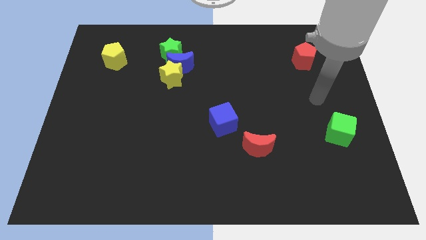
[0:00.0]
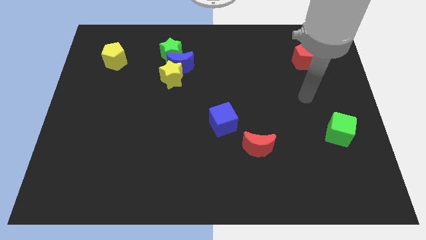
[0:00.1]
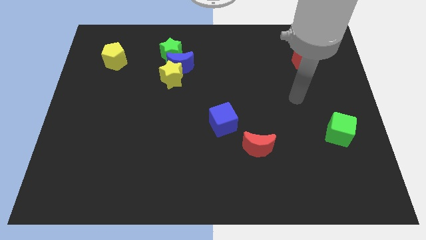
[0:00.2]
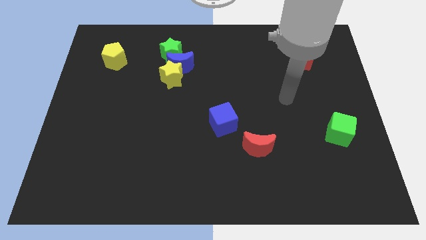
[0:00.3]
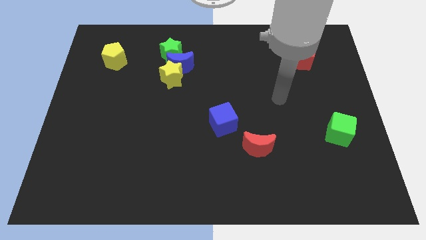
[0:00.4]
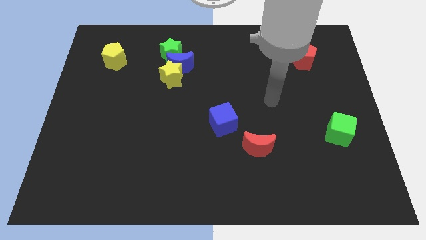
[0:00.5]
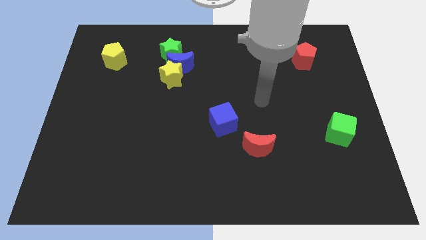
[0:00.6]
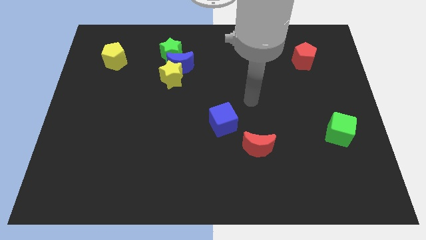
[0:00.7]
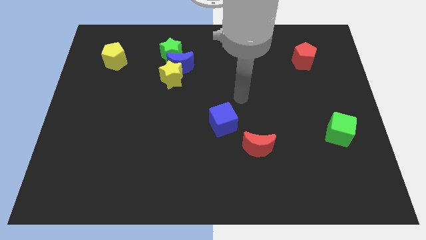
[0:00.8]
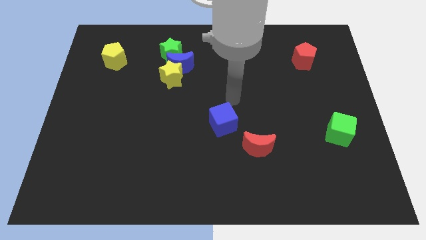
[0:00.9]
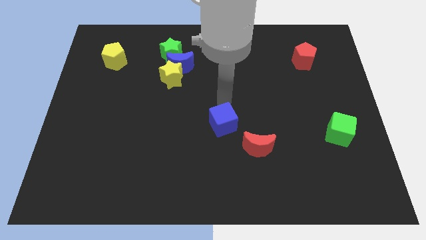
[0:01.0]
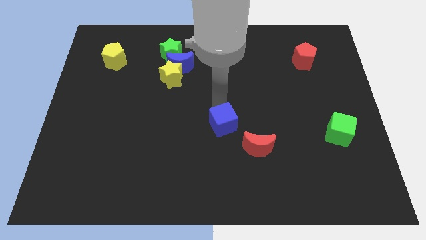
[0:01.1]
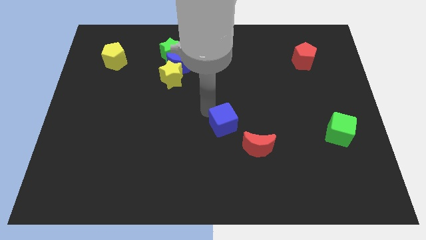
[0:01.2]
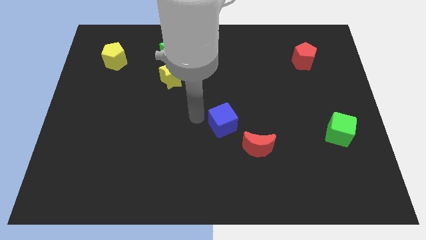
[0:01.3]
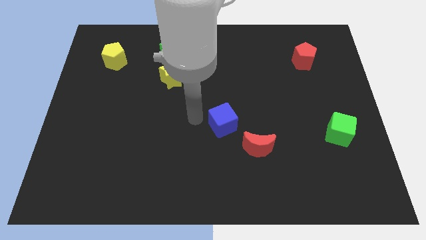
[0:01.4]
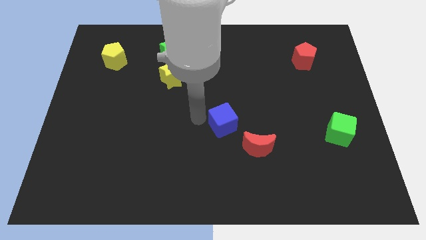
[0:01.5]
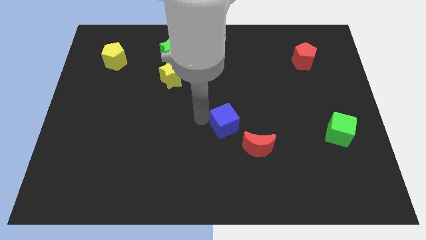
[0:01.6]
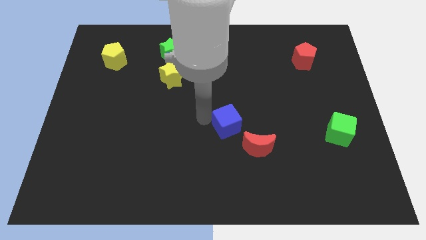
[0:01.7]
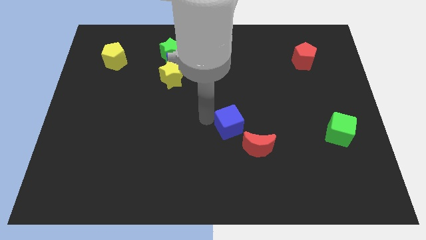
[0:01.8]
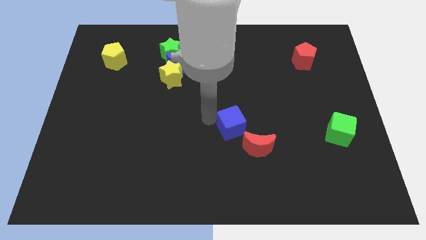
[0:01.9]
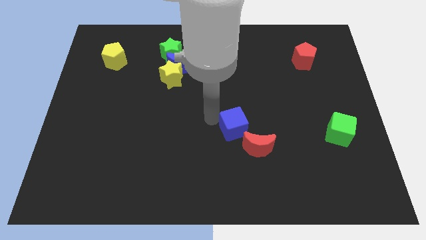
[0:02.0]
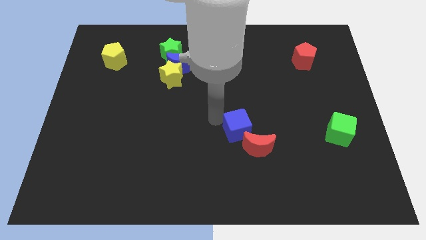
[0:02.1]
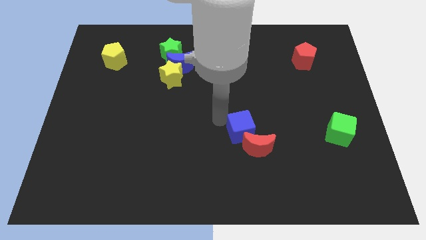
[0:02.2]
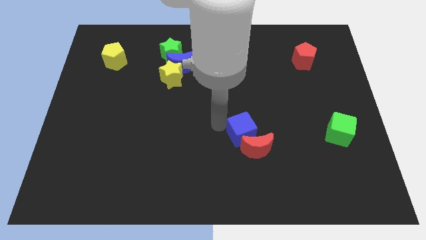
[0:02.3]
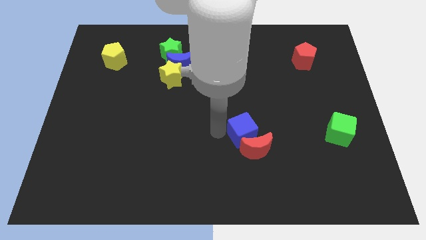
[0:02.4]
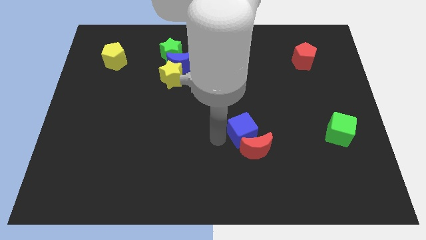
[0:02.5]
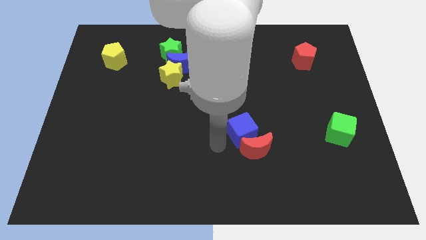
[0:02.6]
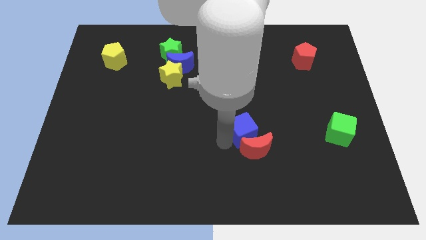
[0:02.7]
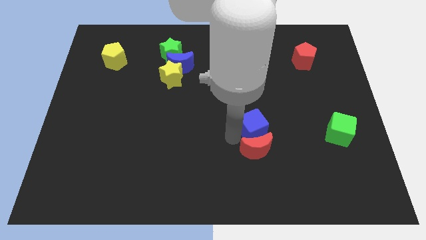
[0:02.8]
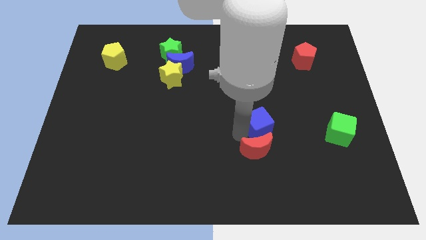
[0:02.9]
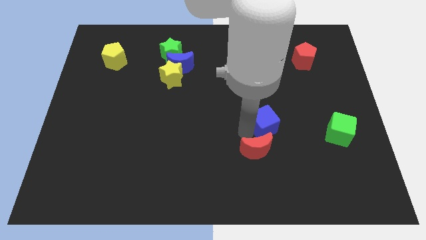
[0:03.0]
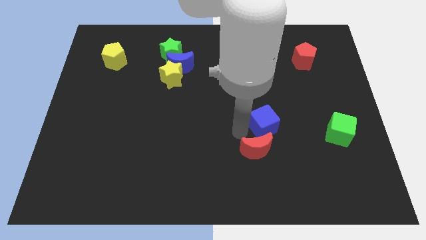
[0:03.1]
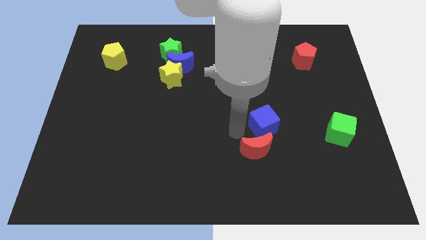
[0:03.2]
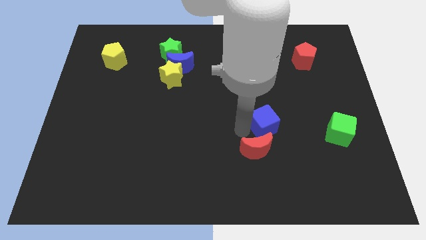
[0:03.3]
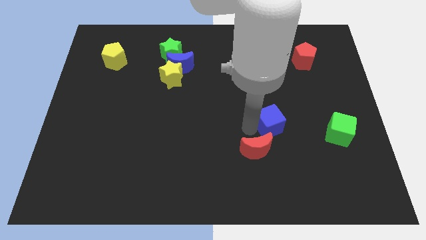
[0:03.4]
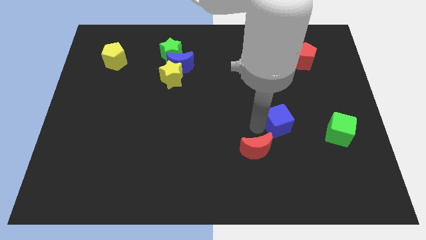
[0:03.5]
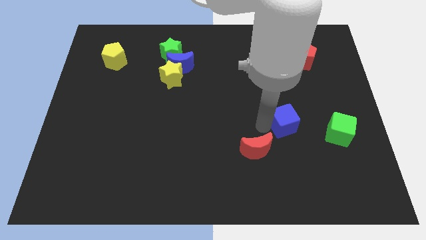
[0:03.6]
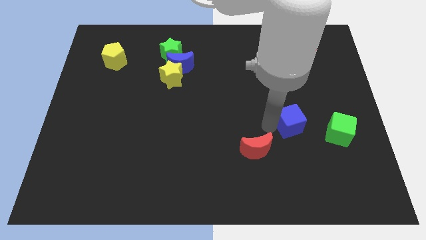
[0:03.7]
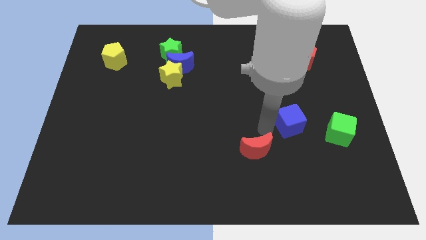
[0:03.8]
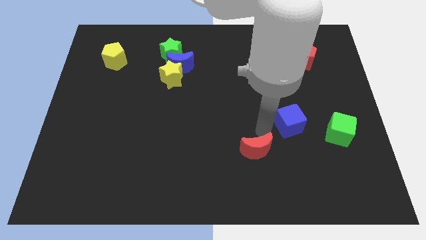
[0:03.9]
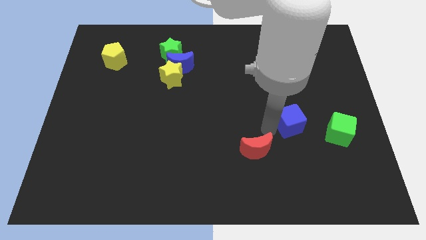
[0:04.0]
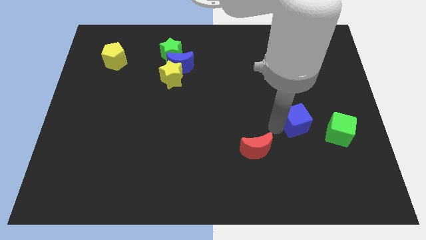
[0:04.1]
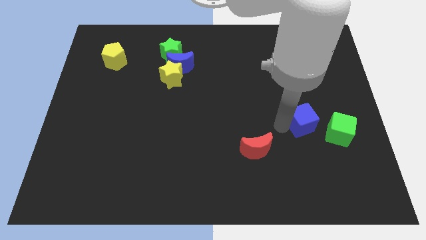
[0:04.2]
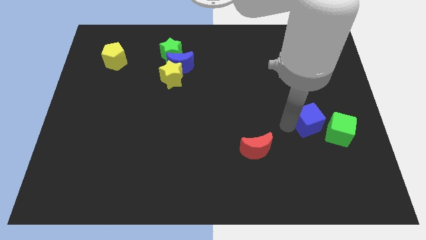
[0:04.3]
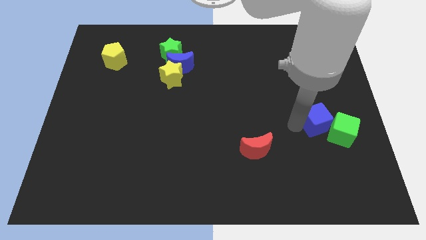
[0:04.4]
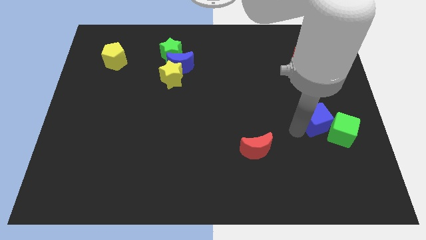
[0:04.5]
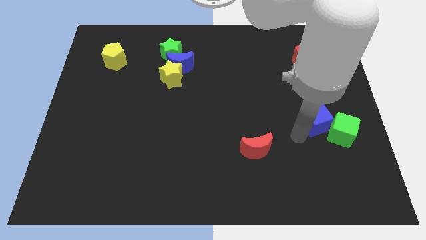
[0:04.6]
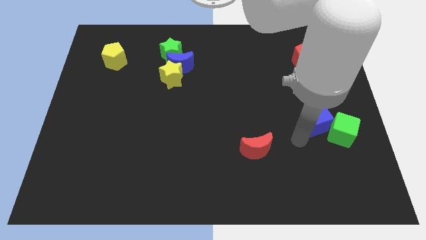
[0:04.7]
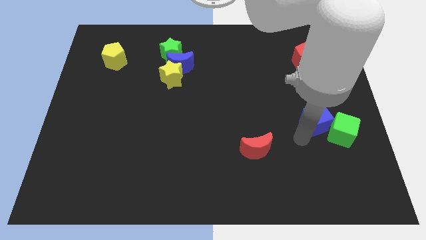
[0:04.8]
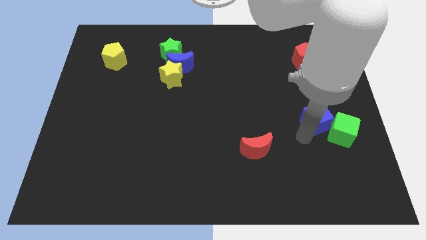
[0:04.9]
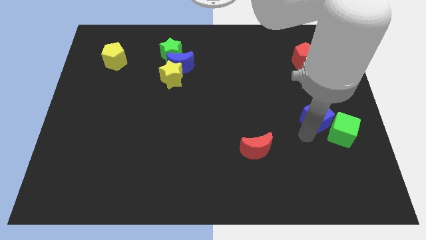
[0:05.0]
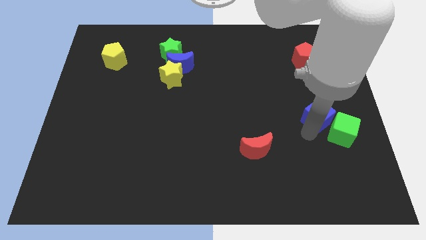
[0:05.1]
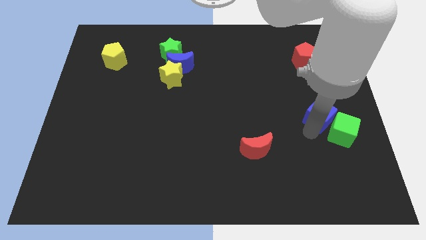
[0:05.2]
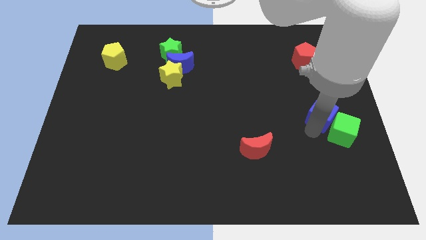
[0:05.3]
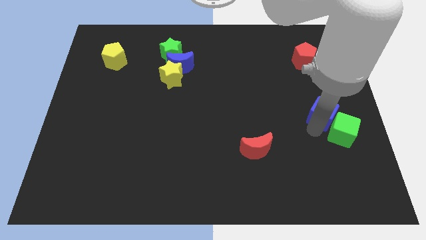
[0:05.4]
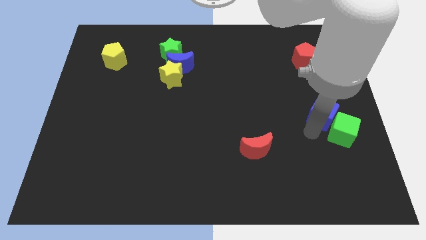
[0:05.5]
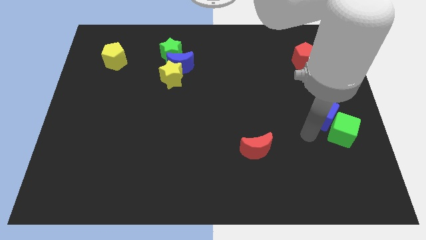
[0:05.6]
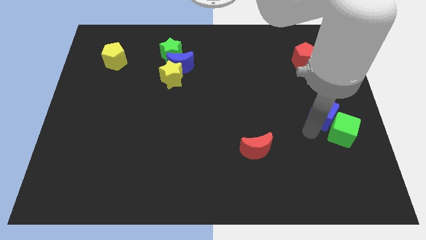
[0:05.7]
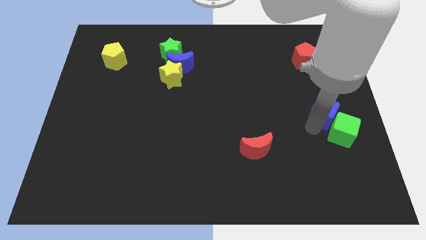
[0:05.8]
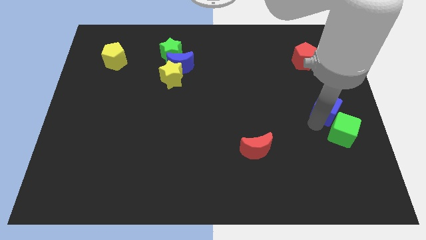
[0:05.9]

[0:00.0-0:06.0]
move the blue cube to the right side of the board

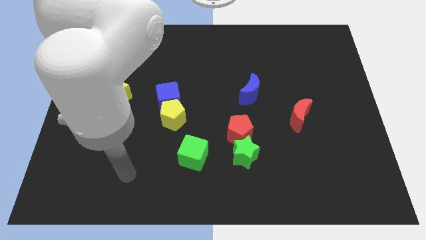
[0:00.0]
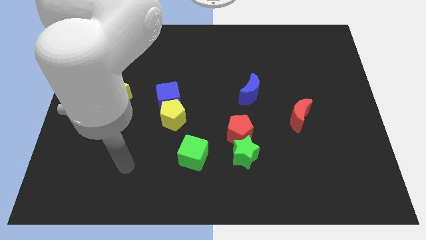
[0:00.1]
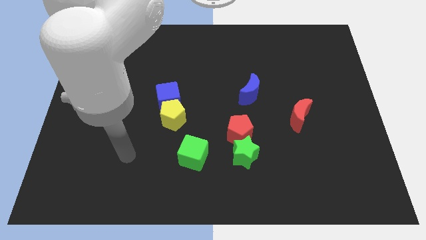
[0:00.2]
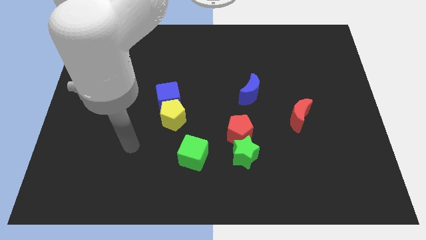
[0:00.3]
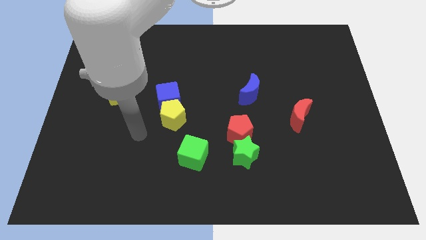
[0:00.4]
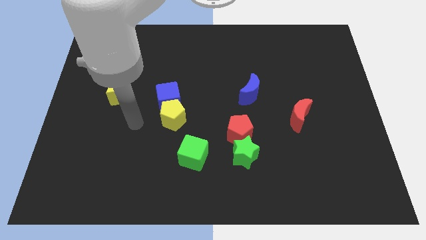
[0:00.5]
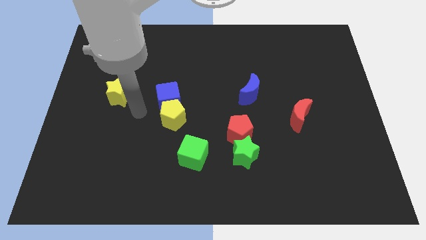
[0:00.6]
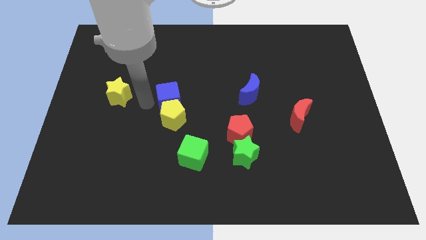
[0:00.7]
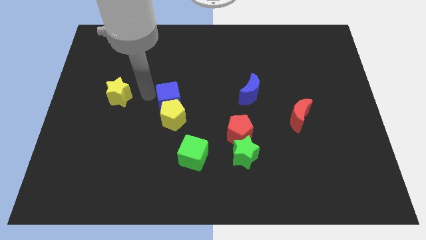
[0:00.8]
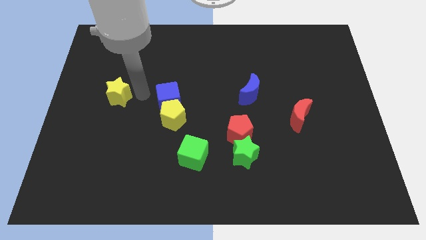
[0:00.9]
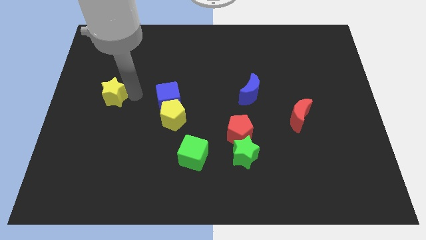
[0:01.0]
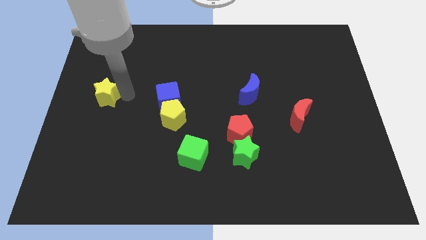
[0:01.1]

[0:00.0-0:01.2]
push the yellow star to the center left
